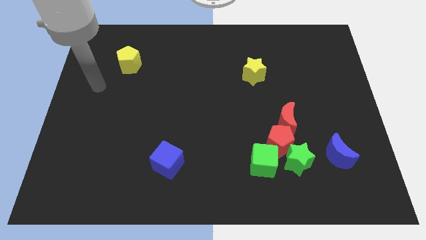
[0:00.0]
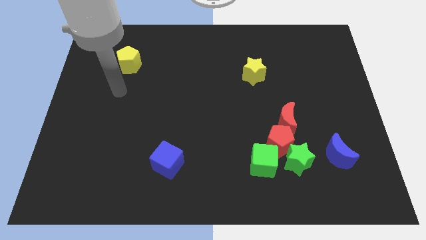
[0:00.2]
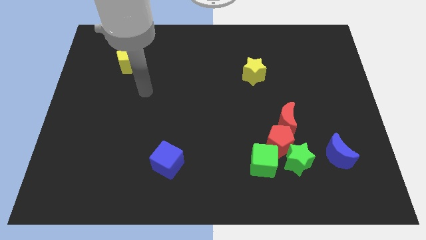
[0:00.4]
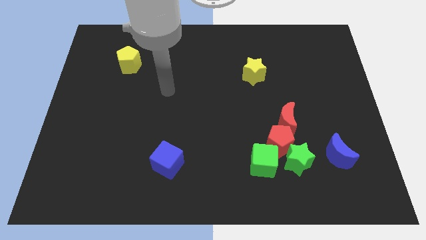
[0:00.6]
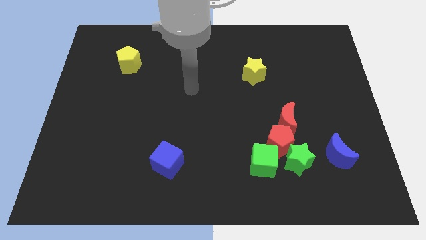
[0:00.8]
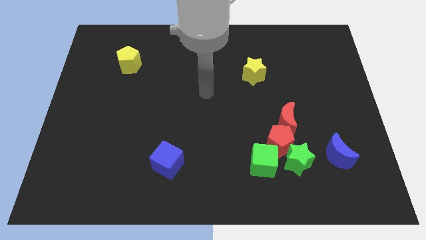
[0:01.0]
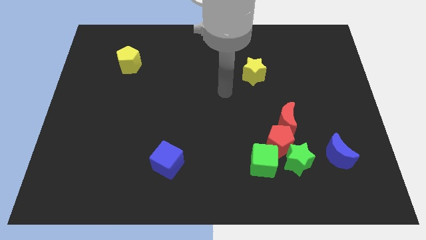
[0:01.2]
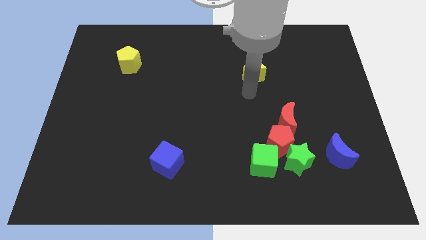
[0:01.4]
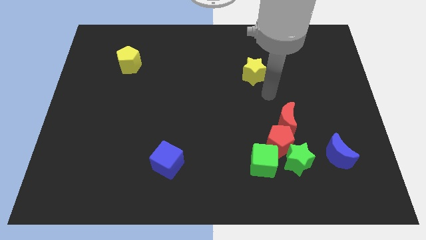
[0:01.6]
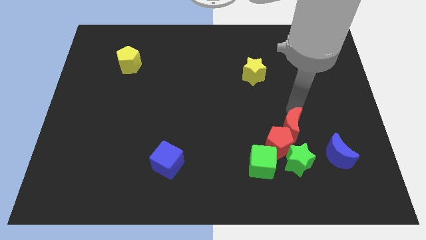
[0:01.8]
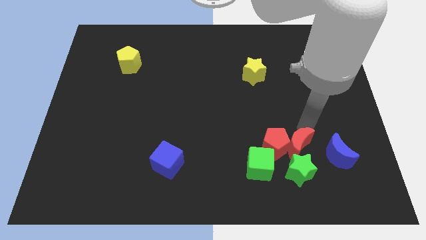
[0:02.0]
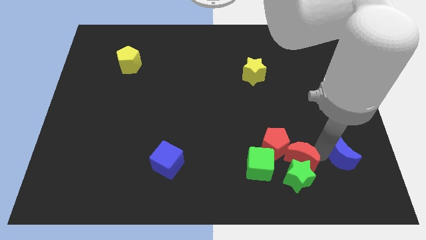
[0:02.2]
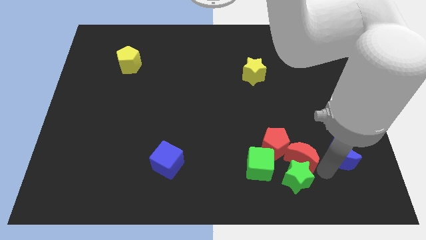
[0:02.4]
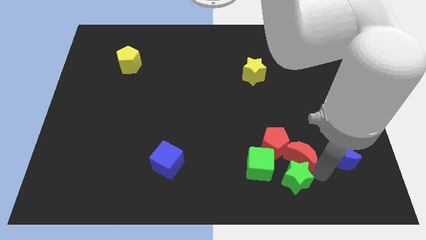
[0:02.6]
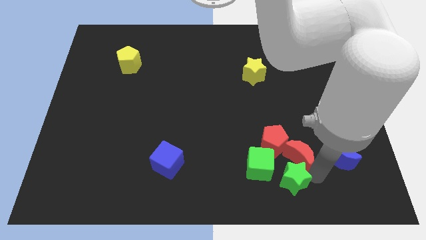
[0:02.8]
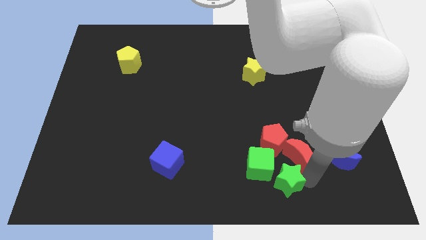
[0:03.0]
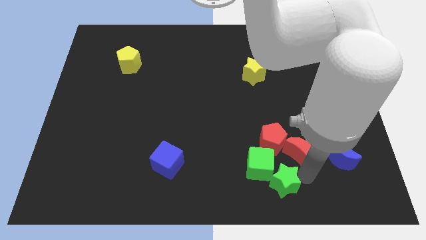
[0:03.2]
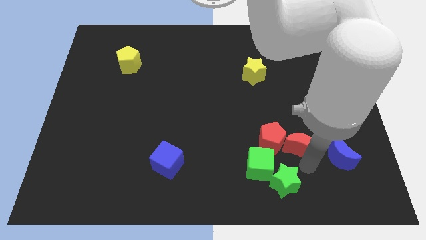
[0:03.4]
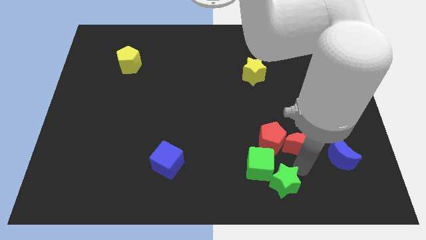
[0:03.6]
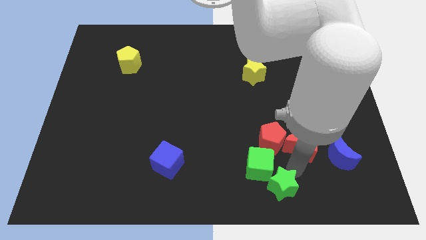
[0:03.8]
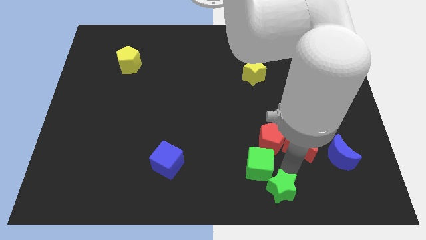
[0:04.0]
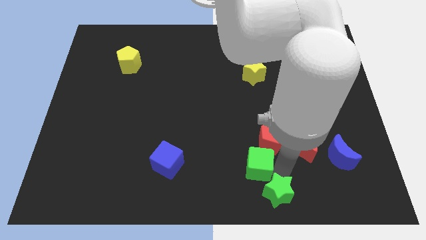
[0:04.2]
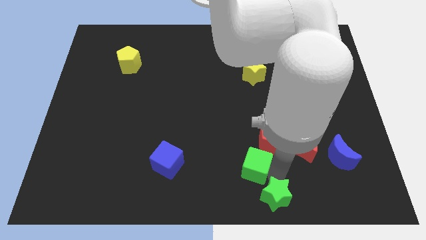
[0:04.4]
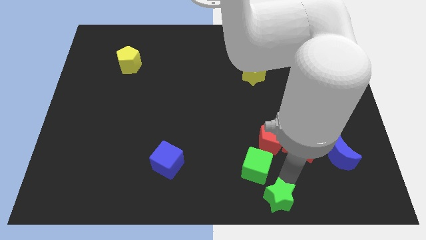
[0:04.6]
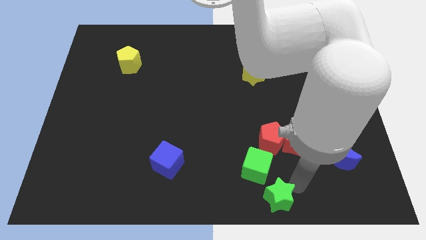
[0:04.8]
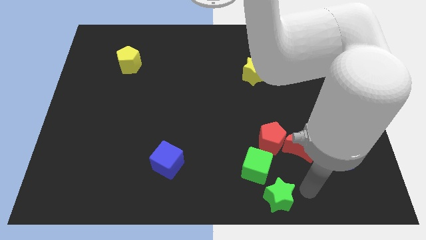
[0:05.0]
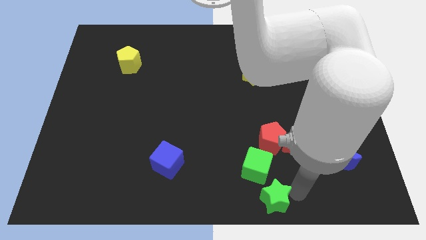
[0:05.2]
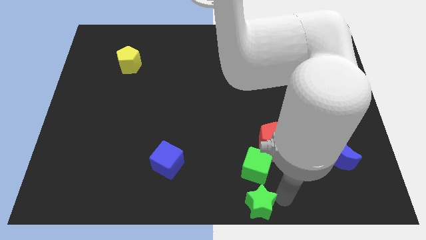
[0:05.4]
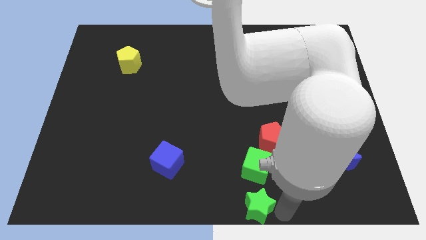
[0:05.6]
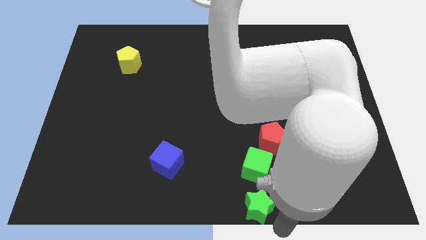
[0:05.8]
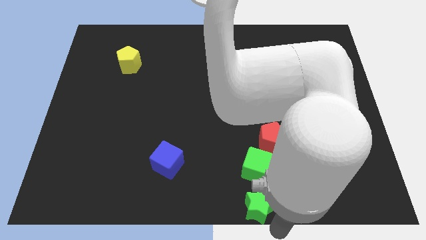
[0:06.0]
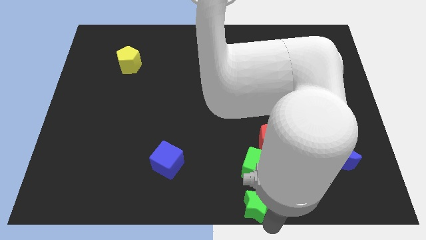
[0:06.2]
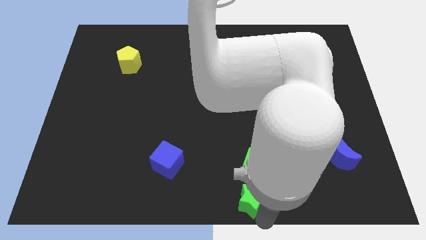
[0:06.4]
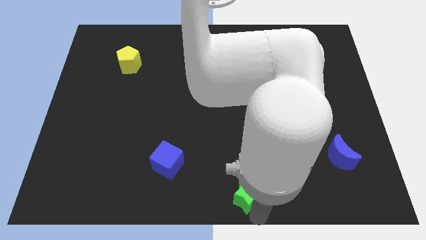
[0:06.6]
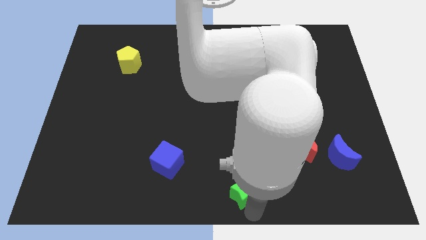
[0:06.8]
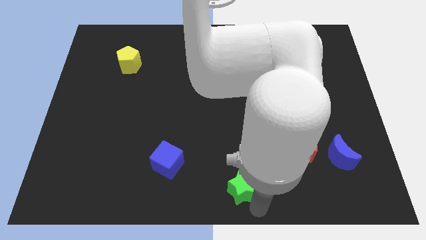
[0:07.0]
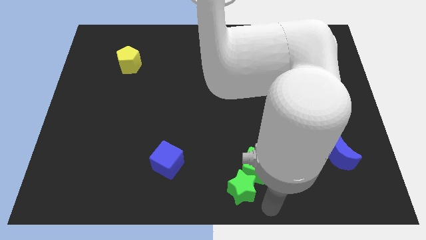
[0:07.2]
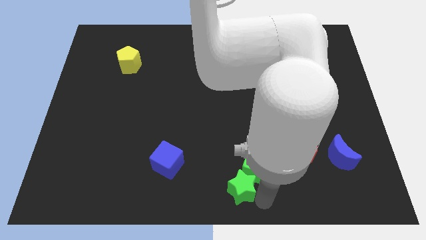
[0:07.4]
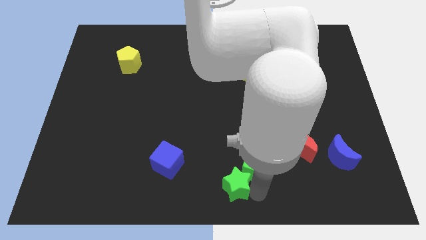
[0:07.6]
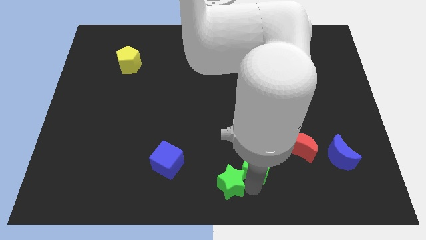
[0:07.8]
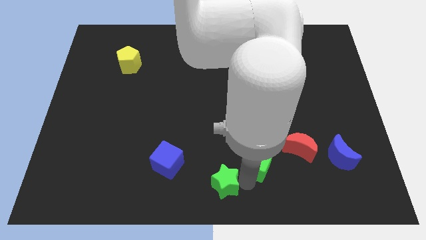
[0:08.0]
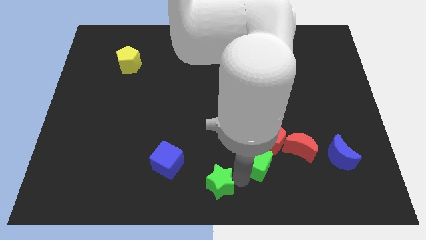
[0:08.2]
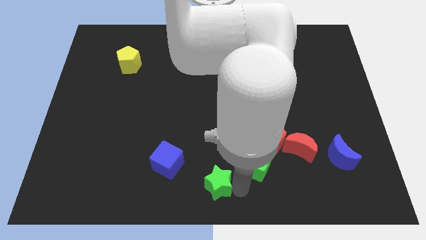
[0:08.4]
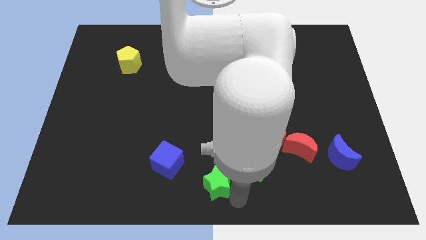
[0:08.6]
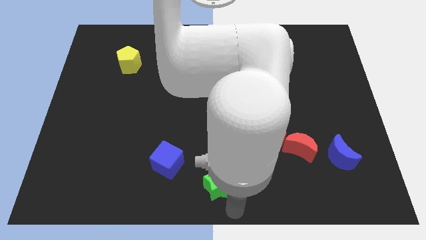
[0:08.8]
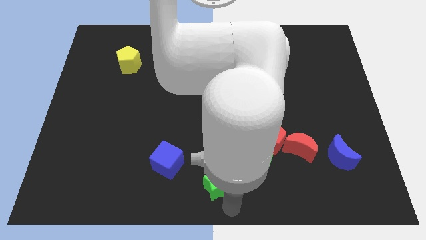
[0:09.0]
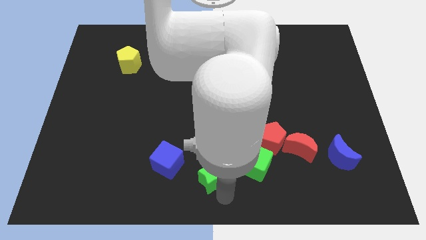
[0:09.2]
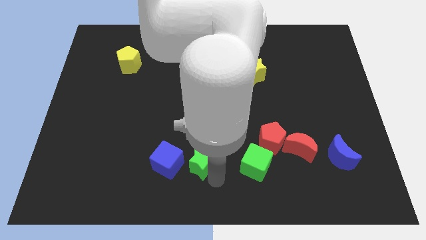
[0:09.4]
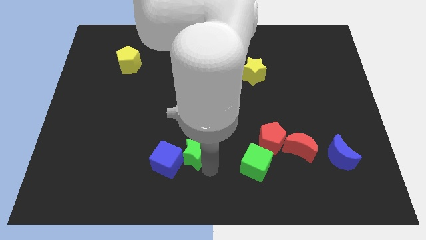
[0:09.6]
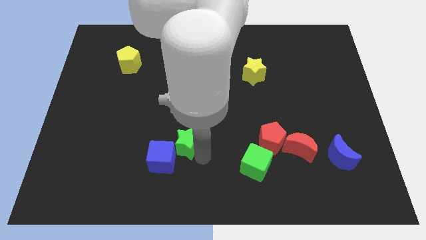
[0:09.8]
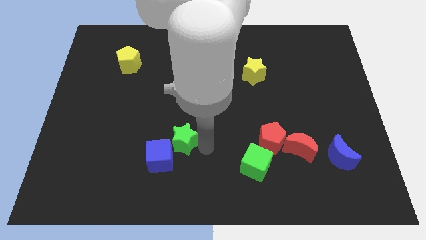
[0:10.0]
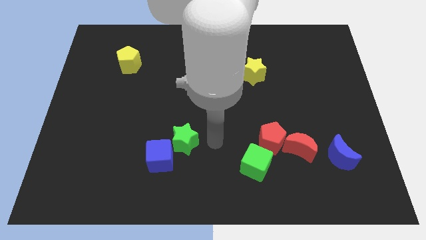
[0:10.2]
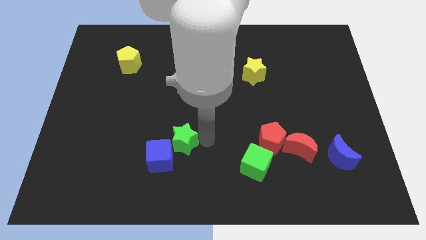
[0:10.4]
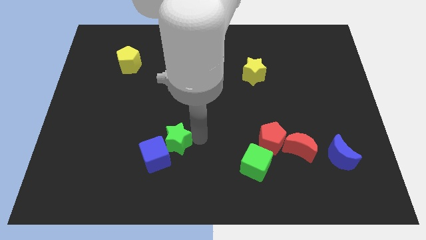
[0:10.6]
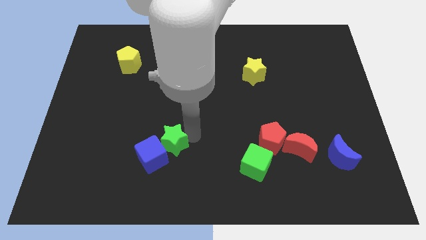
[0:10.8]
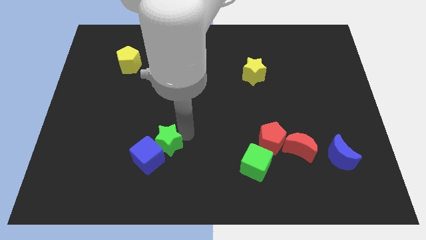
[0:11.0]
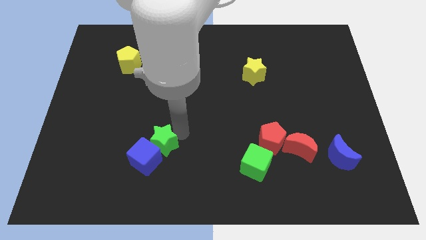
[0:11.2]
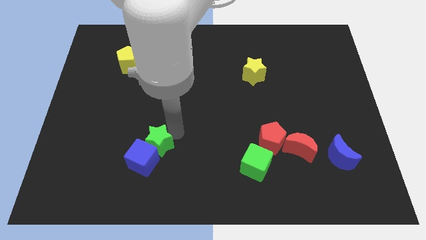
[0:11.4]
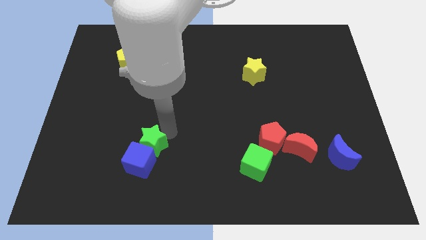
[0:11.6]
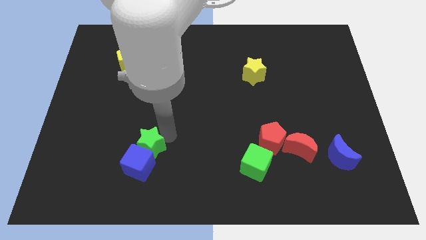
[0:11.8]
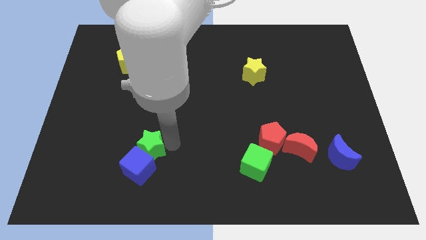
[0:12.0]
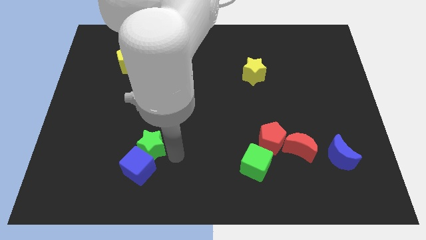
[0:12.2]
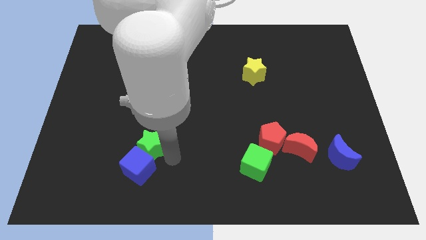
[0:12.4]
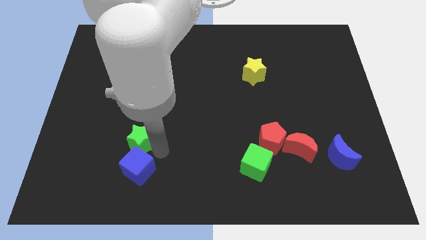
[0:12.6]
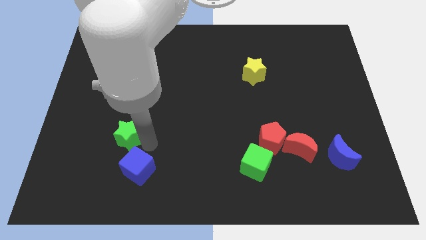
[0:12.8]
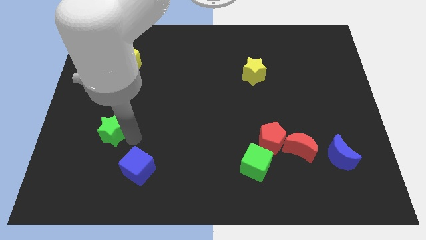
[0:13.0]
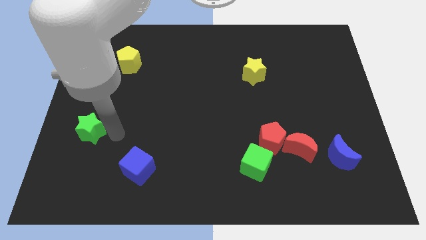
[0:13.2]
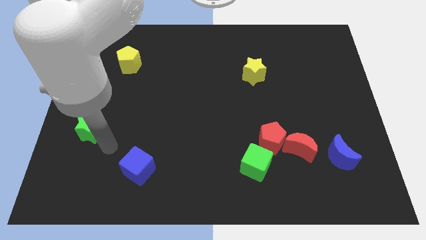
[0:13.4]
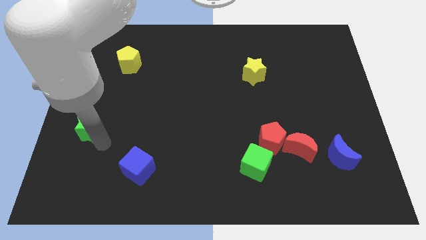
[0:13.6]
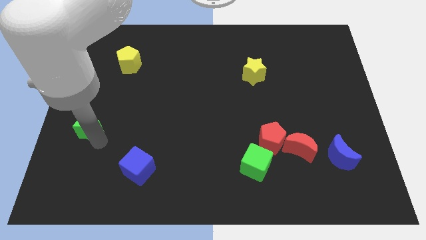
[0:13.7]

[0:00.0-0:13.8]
put the green star to the center left

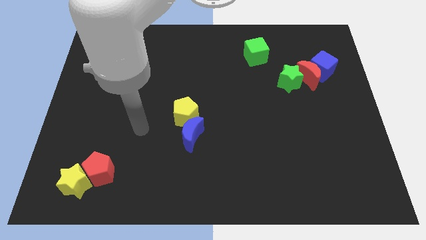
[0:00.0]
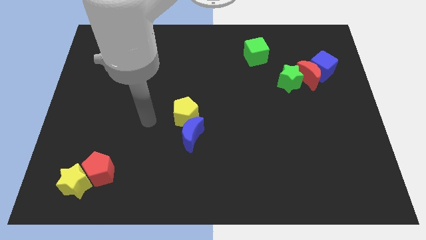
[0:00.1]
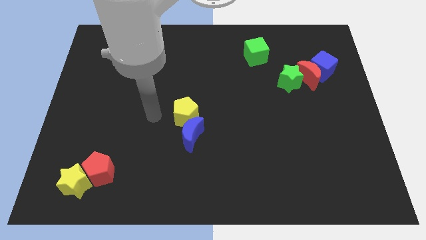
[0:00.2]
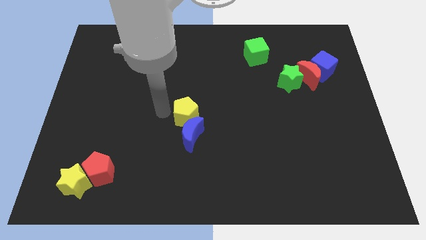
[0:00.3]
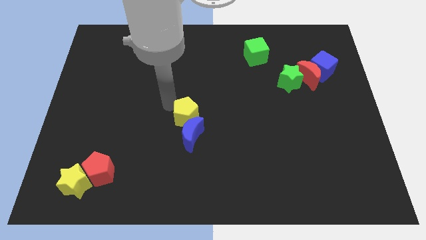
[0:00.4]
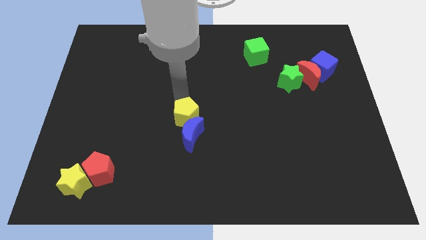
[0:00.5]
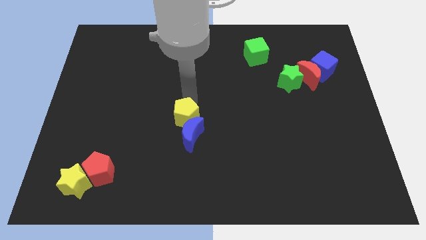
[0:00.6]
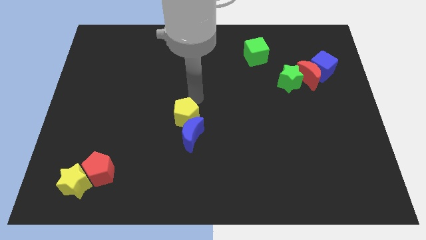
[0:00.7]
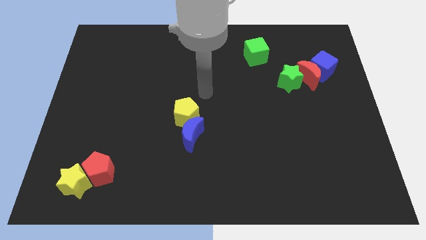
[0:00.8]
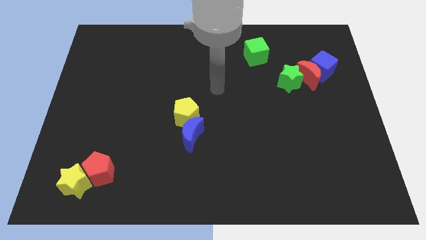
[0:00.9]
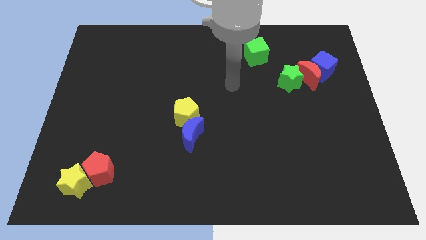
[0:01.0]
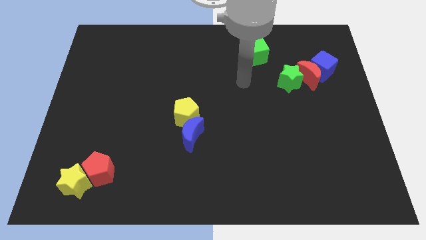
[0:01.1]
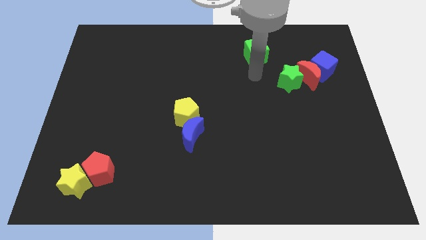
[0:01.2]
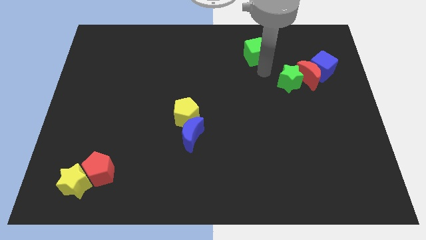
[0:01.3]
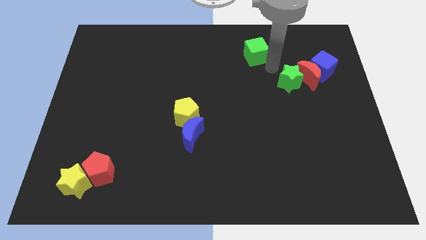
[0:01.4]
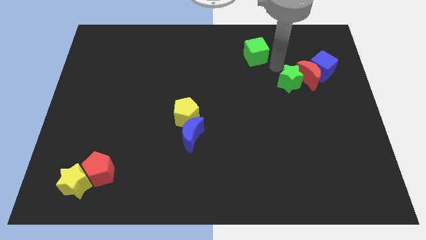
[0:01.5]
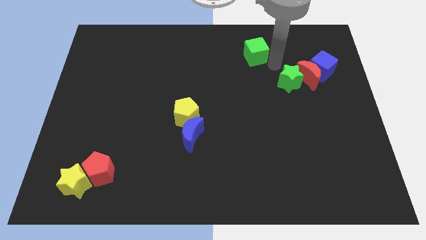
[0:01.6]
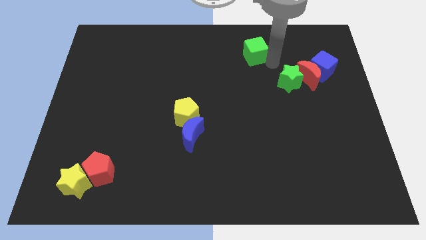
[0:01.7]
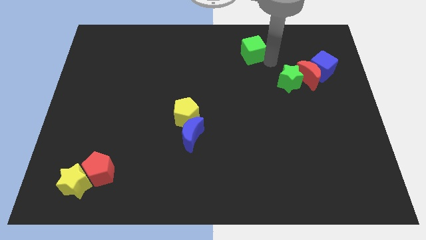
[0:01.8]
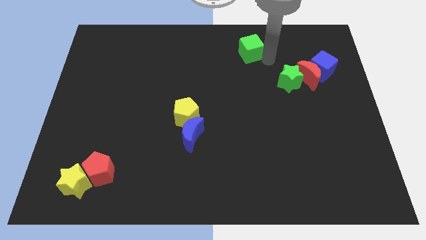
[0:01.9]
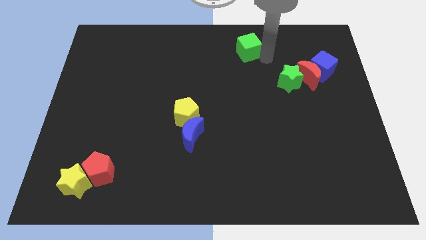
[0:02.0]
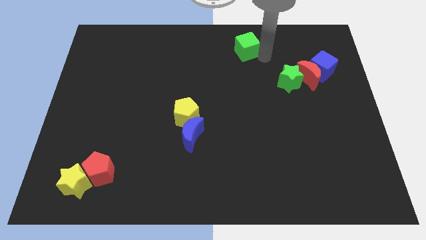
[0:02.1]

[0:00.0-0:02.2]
slide the green cube to the top
